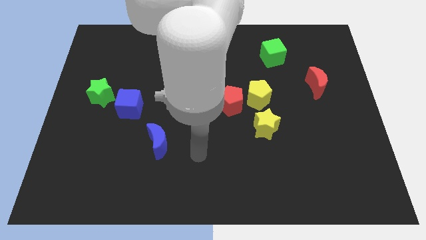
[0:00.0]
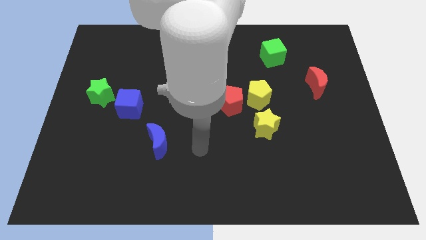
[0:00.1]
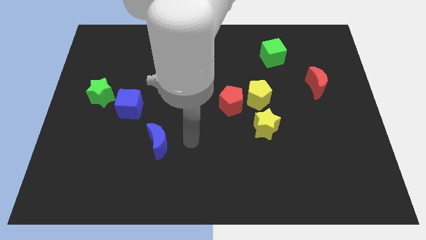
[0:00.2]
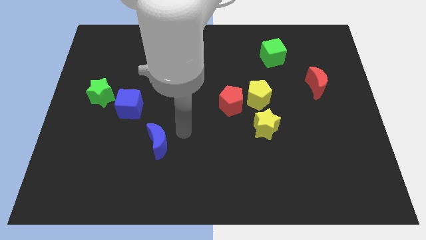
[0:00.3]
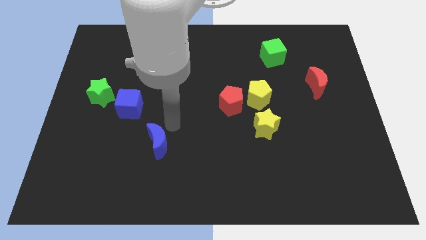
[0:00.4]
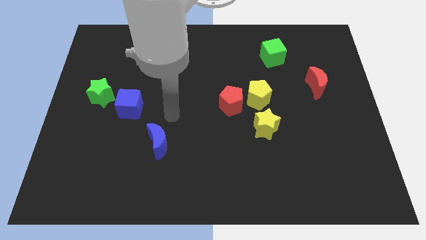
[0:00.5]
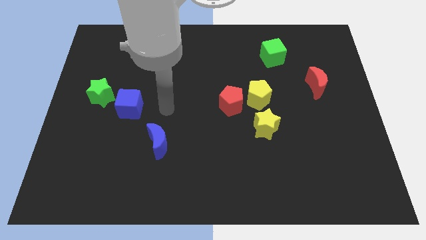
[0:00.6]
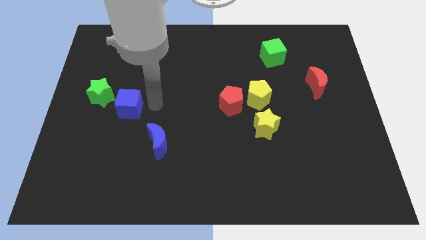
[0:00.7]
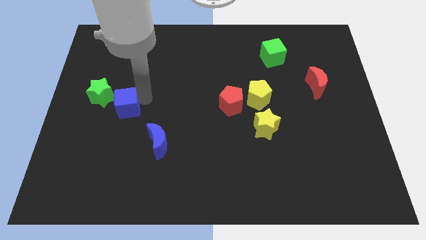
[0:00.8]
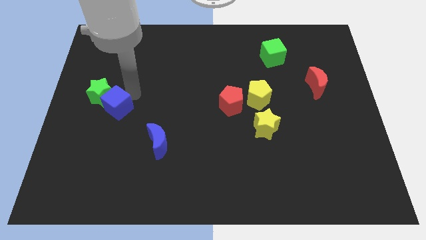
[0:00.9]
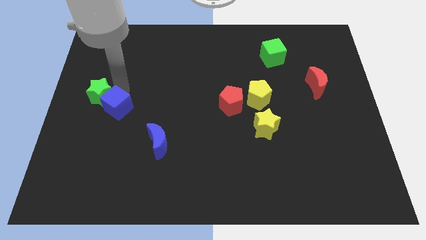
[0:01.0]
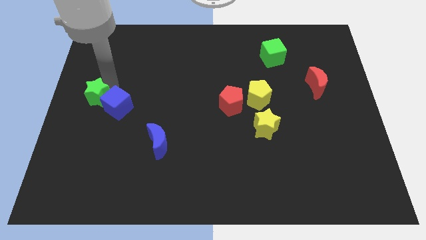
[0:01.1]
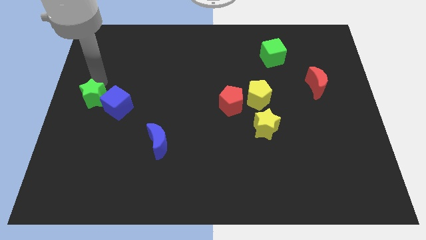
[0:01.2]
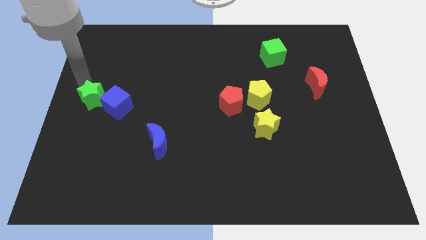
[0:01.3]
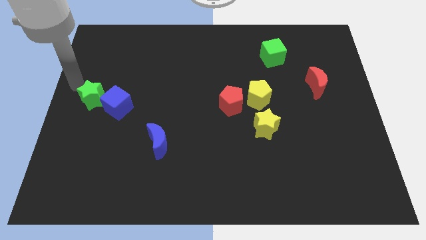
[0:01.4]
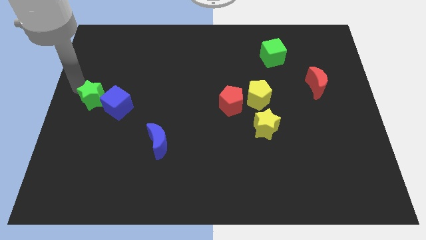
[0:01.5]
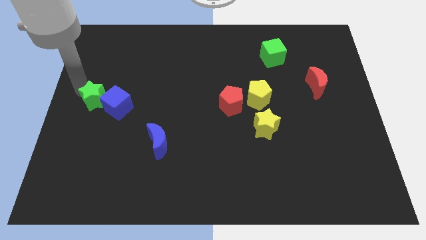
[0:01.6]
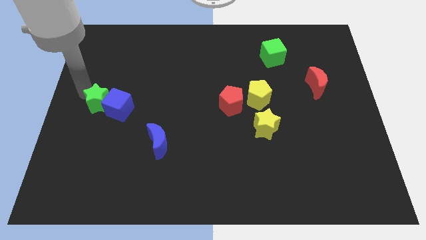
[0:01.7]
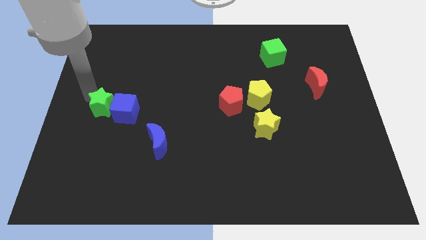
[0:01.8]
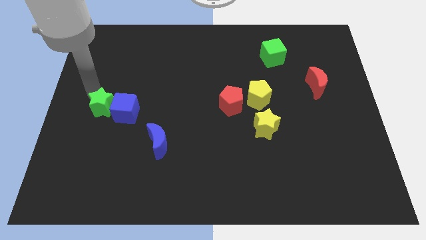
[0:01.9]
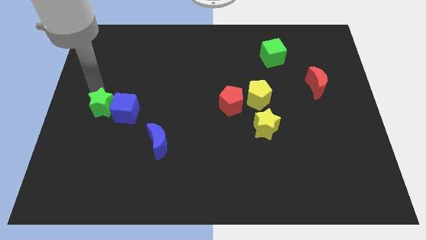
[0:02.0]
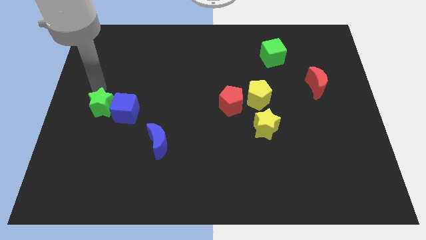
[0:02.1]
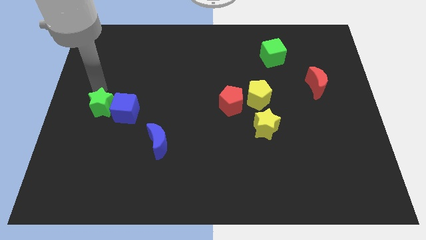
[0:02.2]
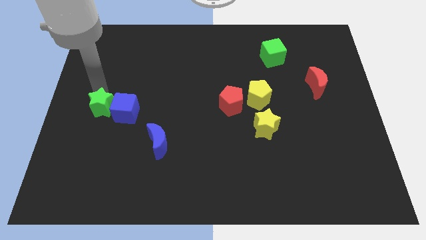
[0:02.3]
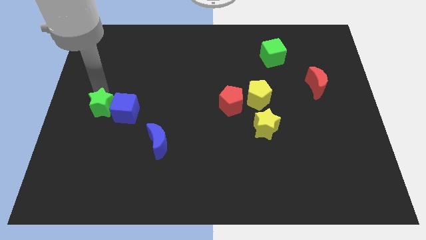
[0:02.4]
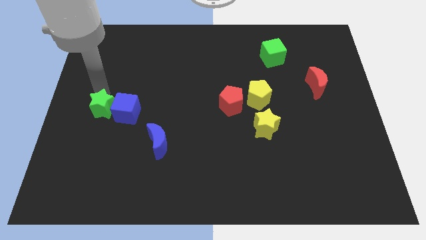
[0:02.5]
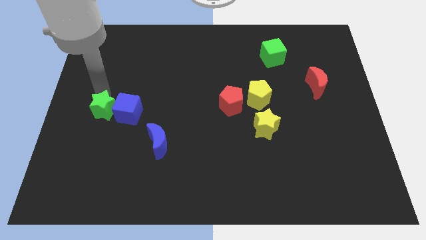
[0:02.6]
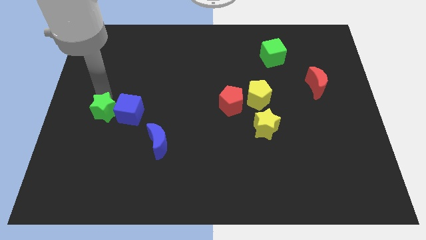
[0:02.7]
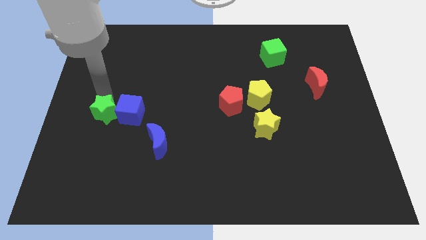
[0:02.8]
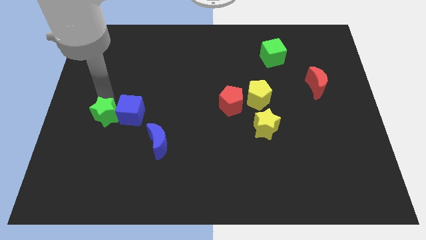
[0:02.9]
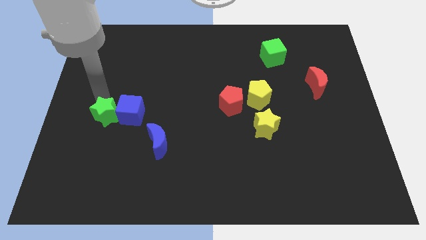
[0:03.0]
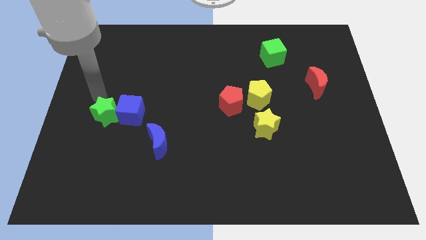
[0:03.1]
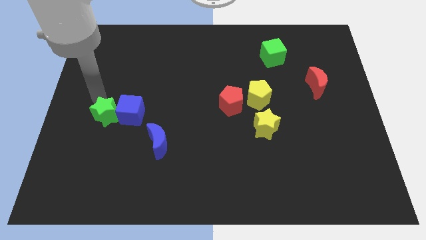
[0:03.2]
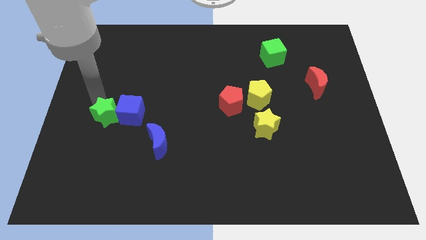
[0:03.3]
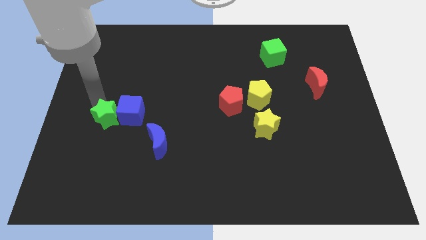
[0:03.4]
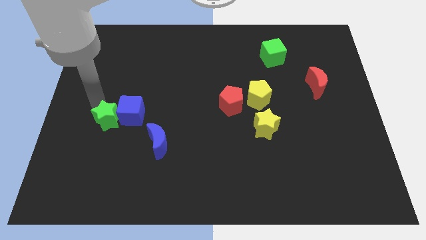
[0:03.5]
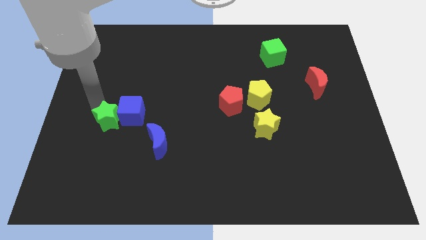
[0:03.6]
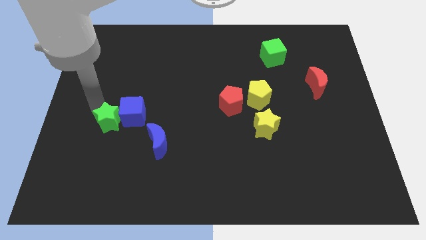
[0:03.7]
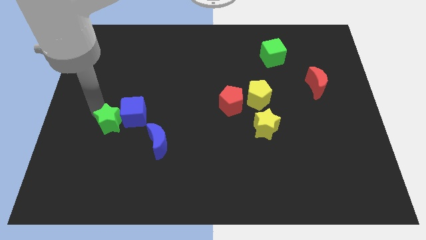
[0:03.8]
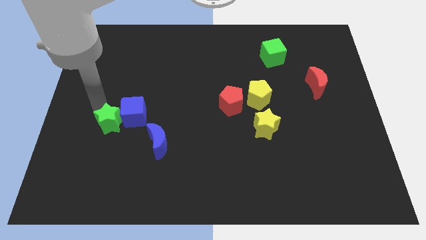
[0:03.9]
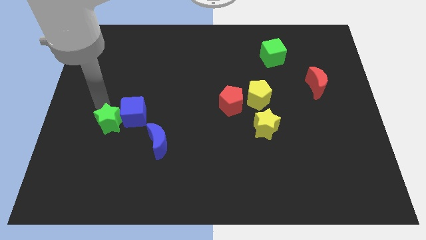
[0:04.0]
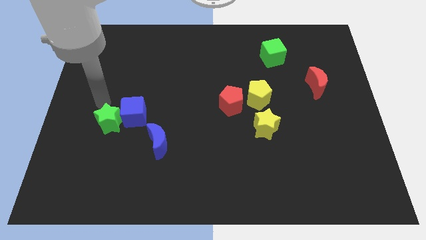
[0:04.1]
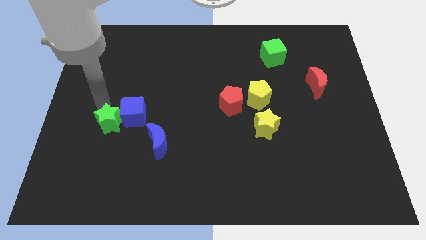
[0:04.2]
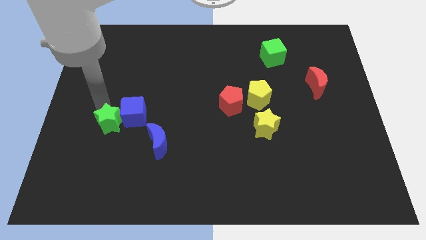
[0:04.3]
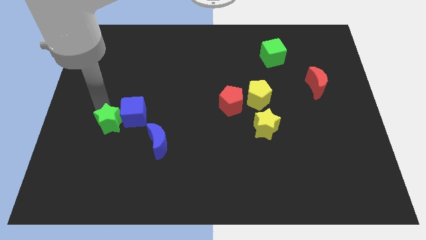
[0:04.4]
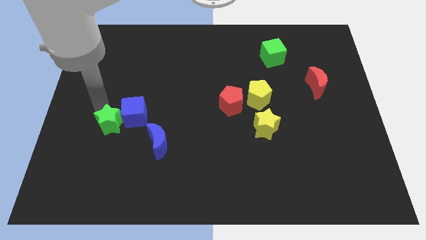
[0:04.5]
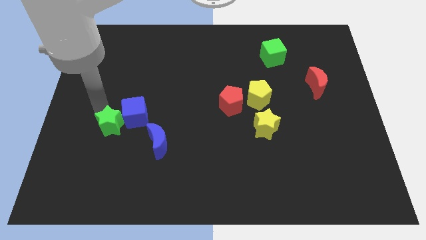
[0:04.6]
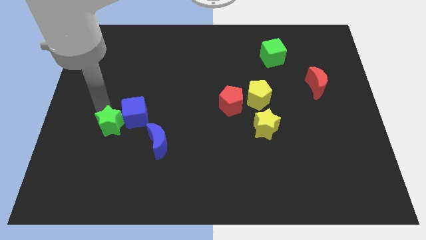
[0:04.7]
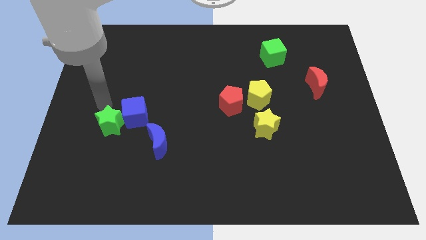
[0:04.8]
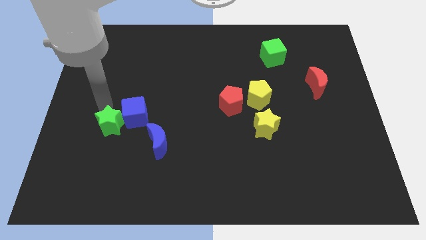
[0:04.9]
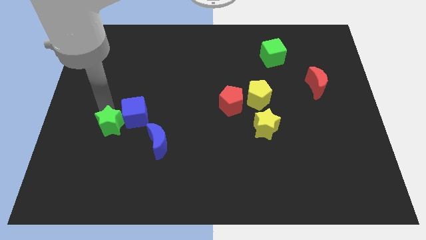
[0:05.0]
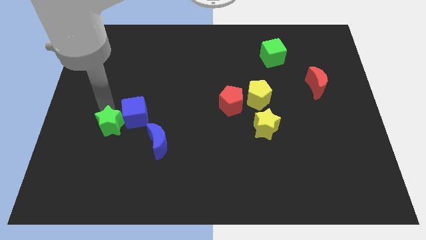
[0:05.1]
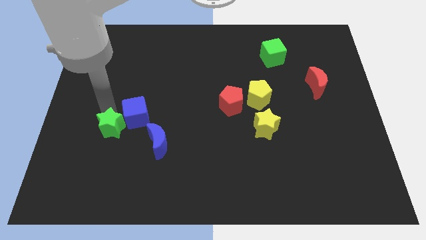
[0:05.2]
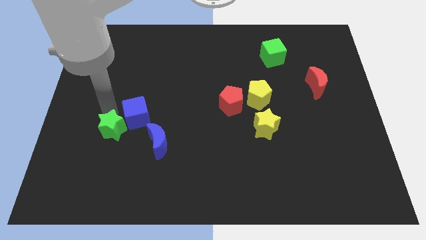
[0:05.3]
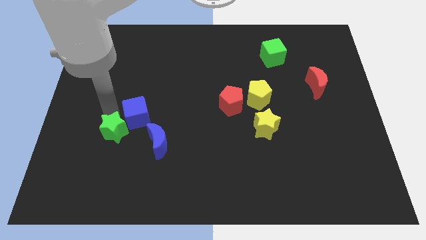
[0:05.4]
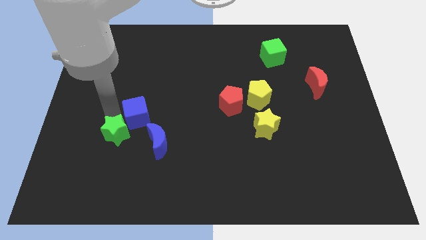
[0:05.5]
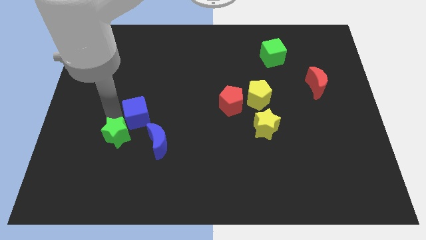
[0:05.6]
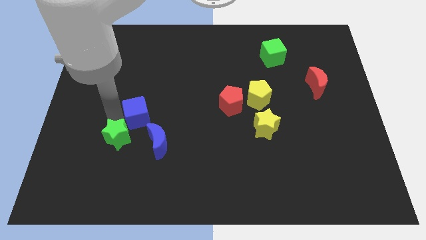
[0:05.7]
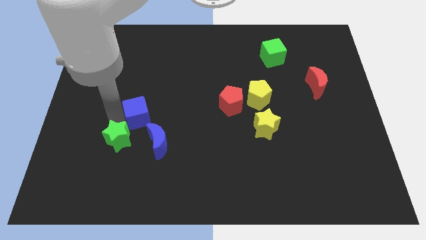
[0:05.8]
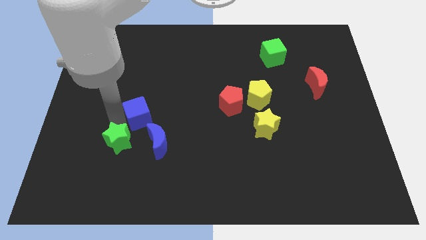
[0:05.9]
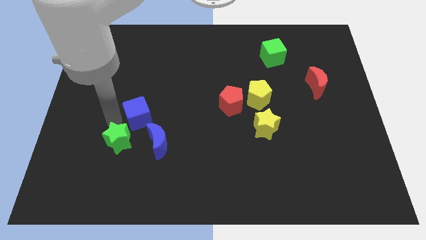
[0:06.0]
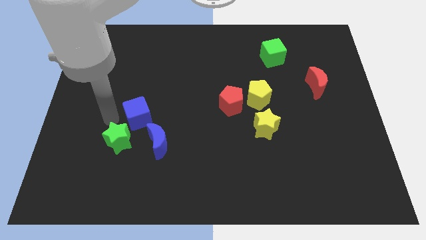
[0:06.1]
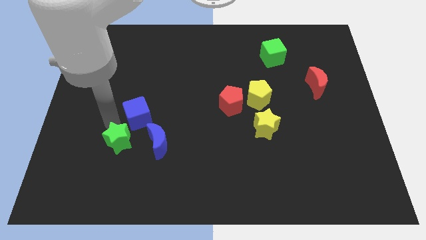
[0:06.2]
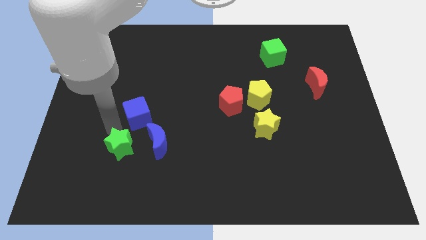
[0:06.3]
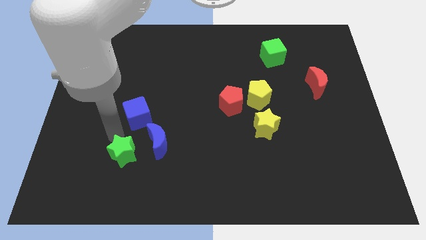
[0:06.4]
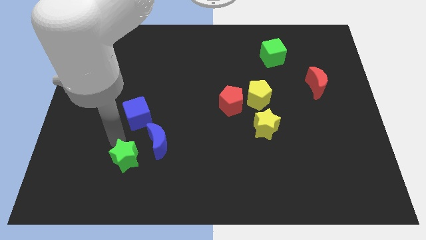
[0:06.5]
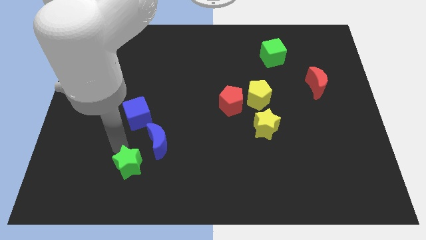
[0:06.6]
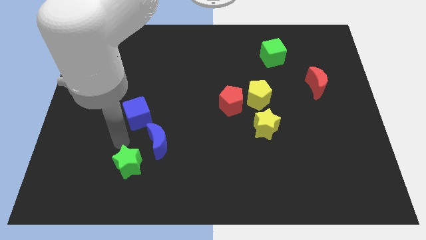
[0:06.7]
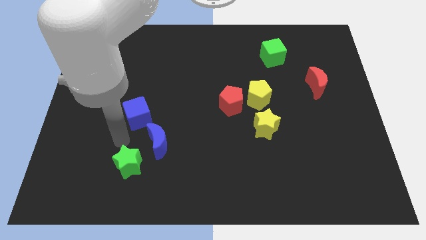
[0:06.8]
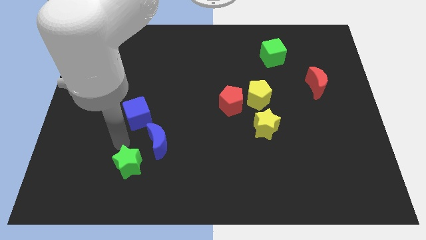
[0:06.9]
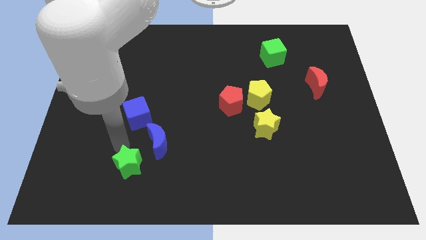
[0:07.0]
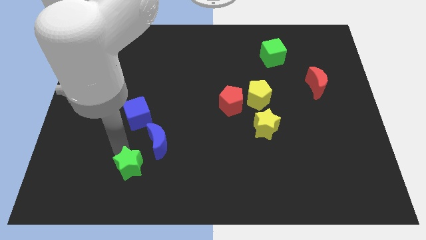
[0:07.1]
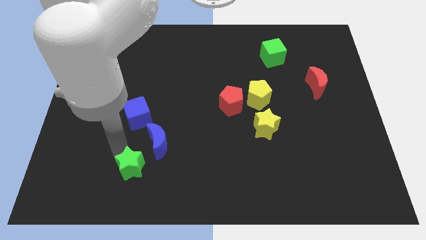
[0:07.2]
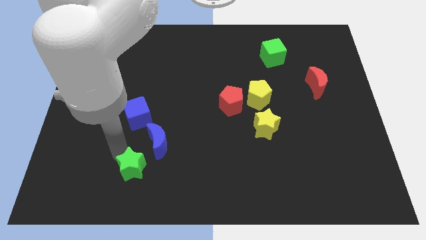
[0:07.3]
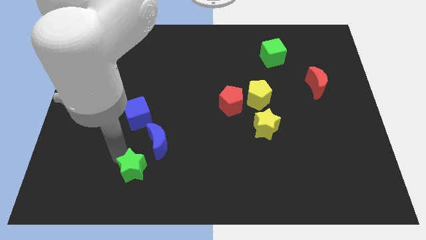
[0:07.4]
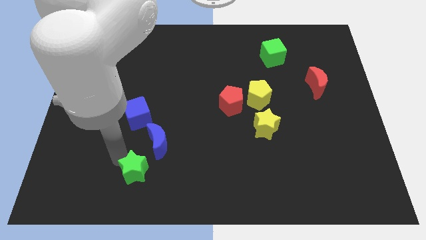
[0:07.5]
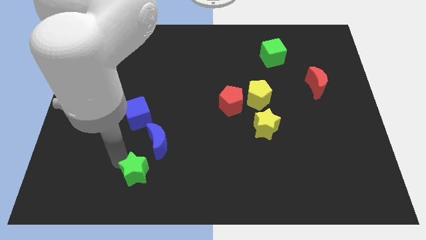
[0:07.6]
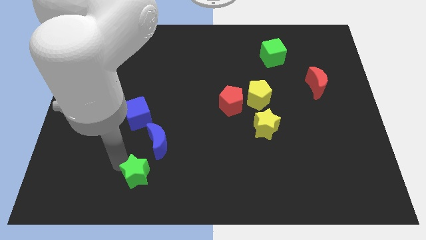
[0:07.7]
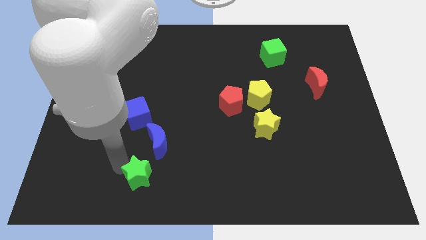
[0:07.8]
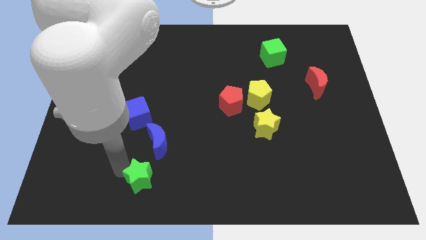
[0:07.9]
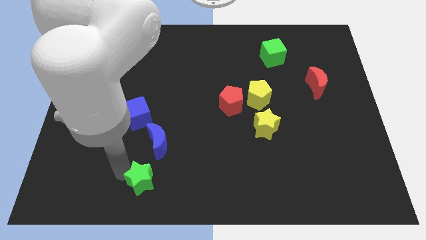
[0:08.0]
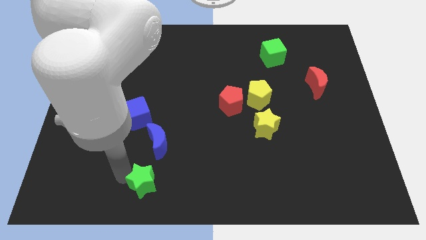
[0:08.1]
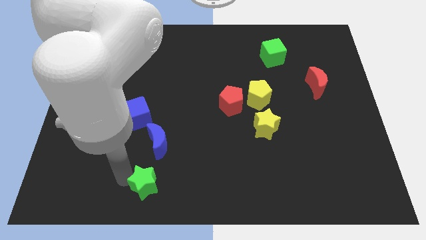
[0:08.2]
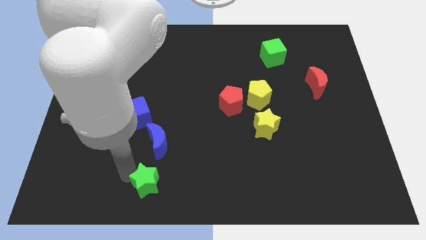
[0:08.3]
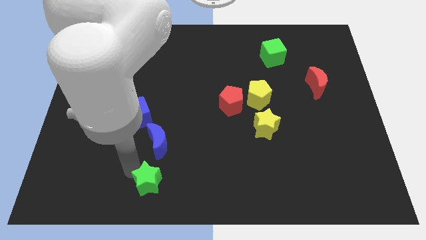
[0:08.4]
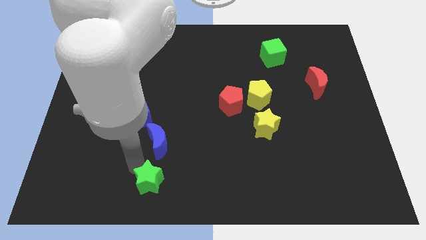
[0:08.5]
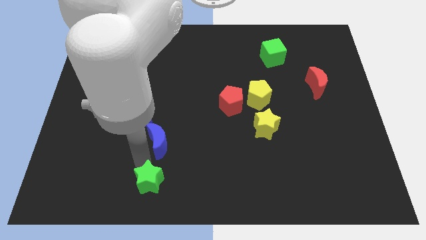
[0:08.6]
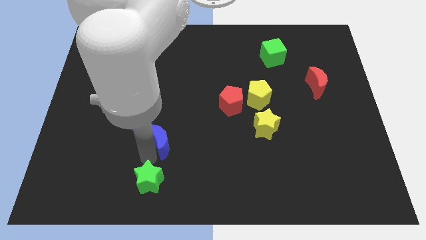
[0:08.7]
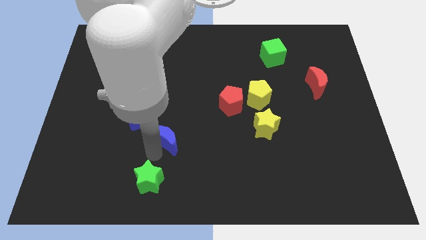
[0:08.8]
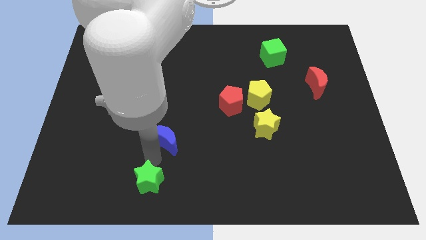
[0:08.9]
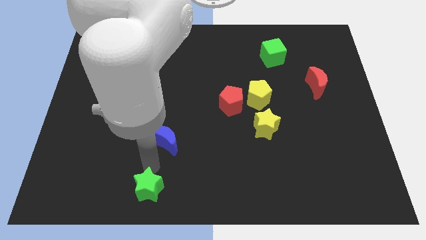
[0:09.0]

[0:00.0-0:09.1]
slide the green star to the bottom side
